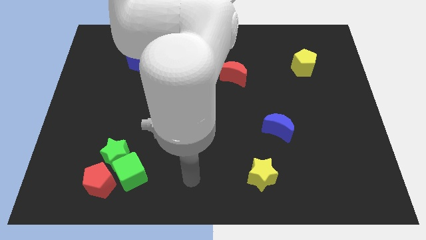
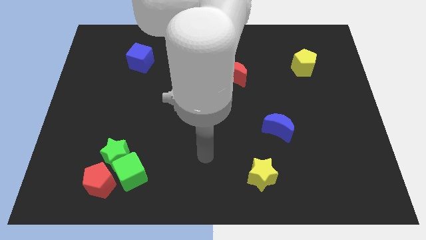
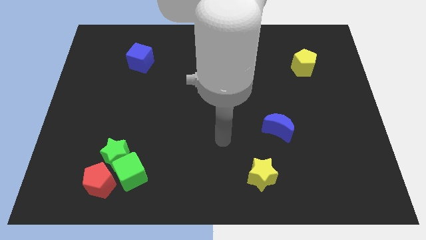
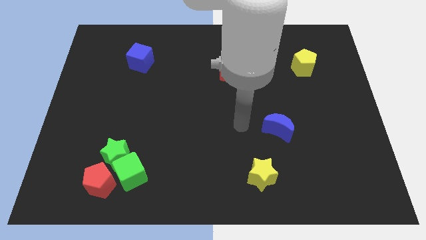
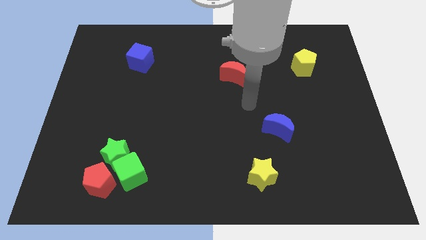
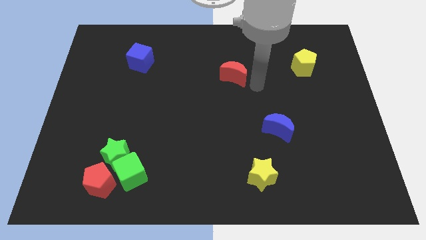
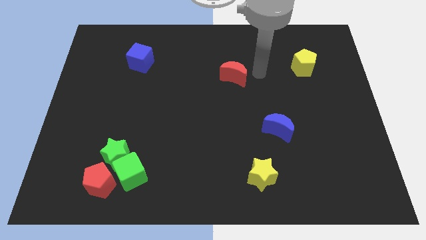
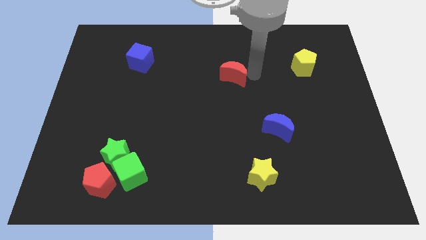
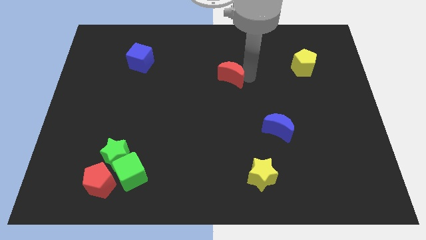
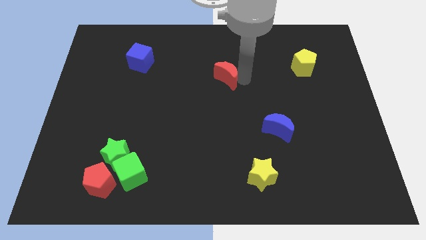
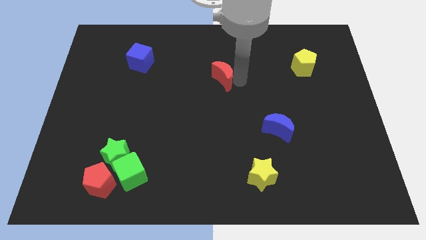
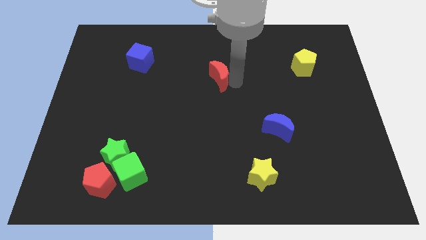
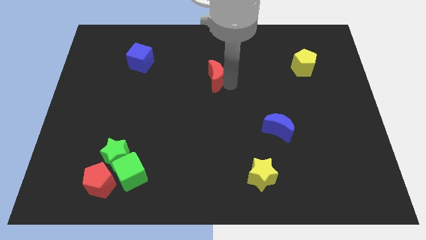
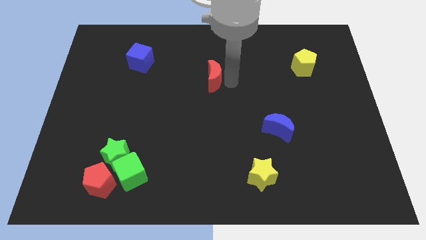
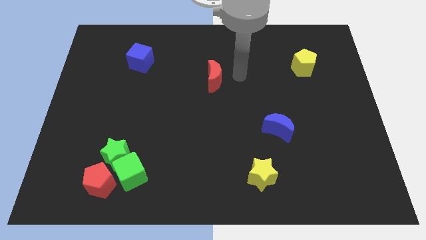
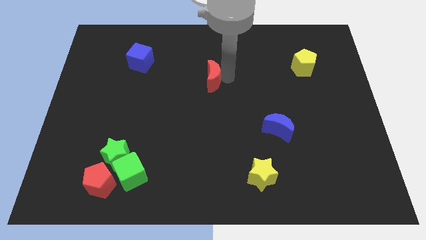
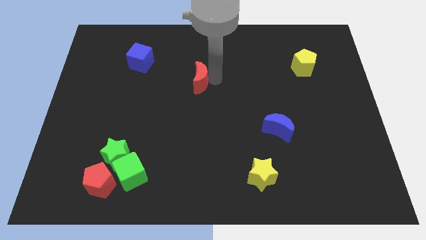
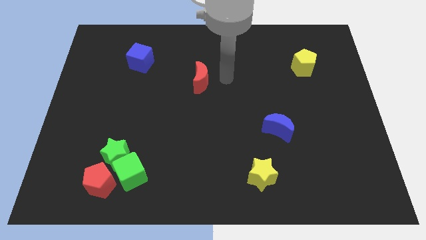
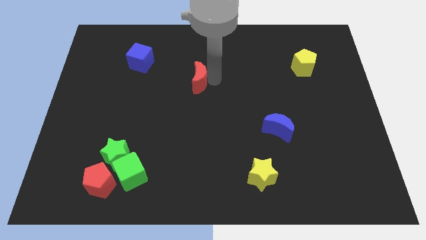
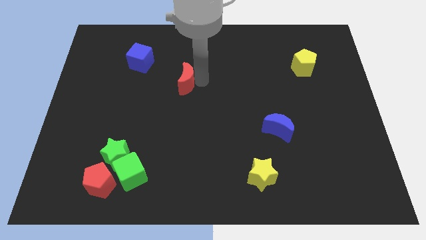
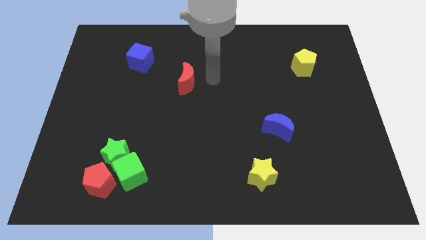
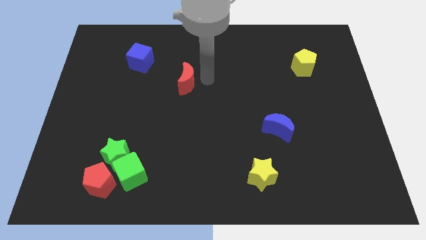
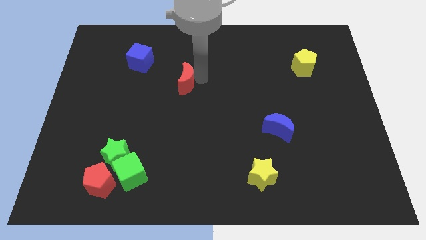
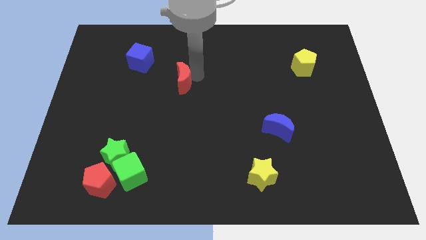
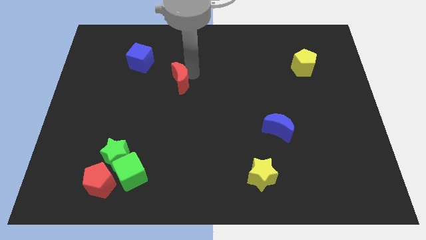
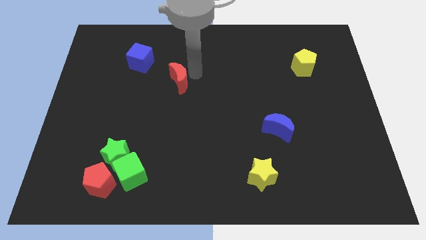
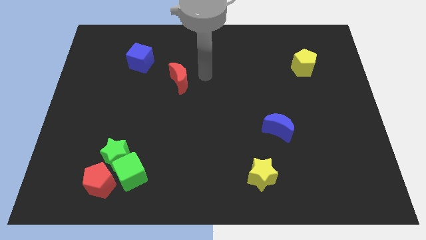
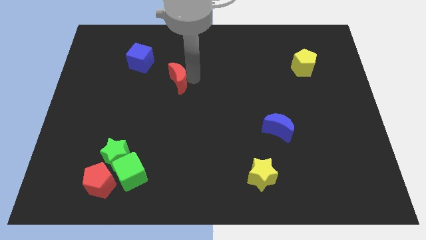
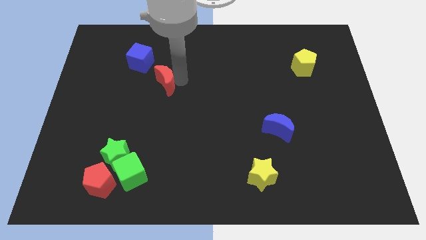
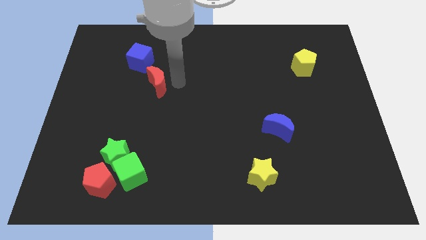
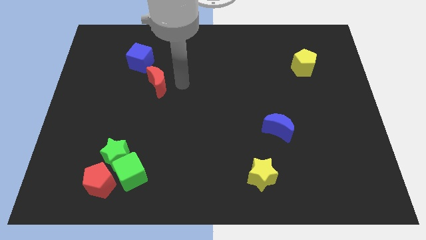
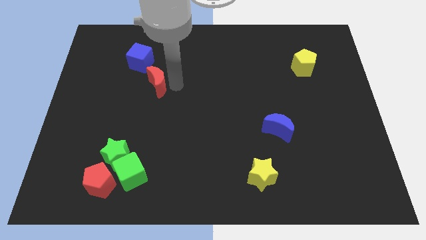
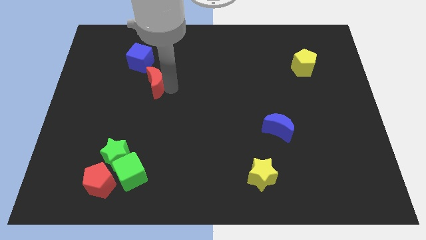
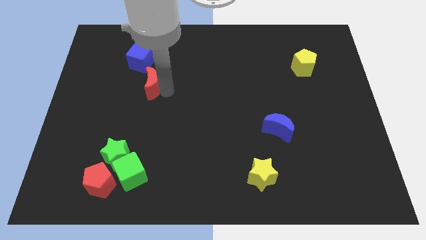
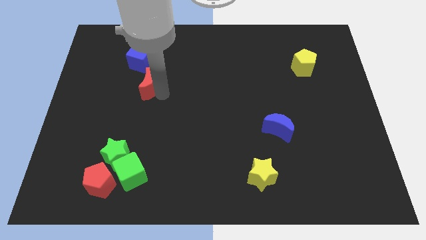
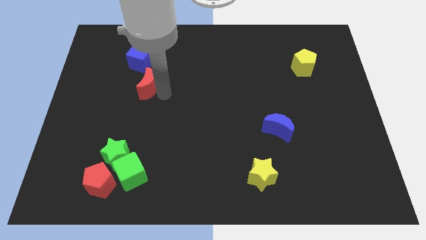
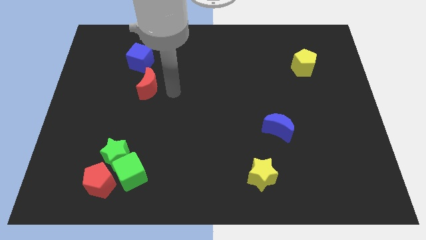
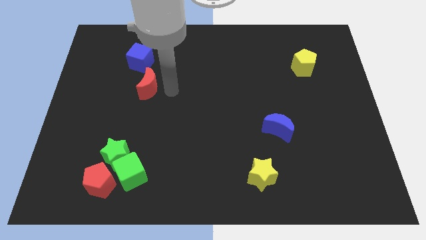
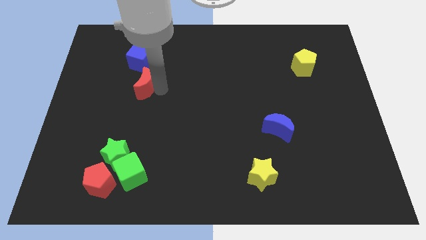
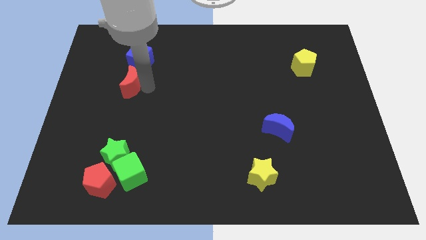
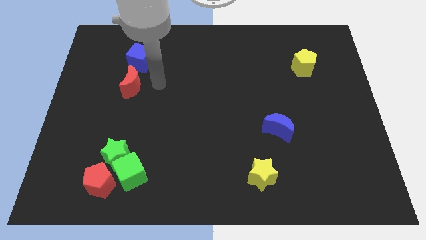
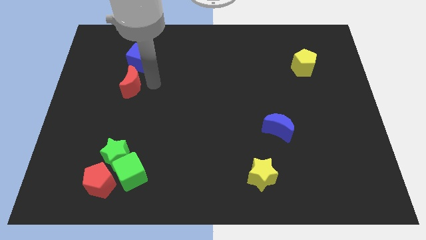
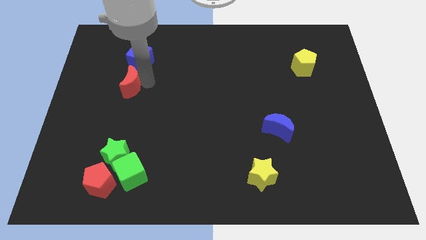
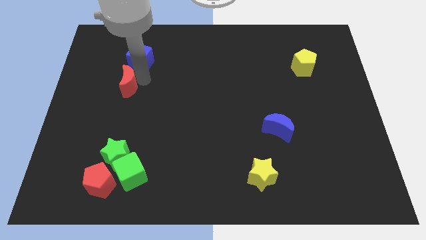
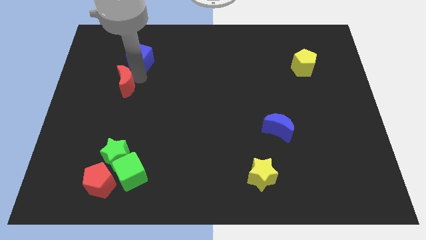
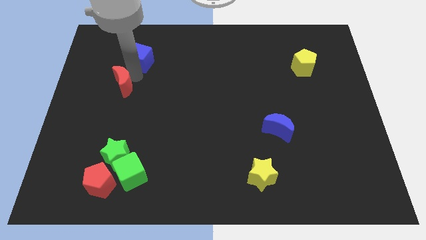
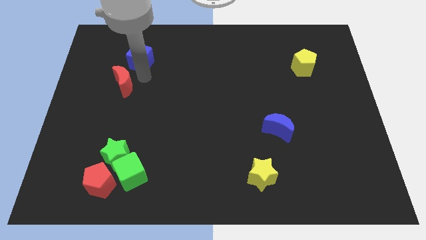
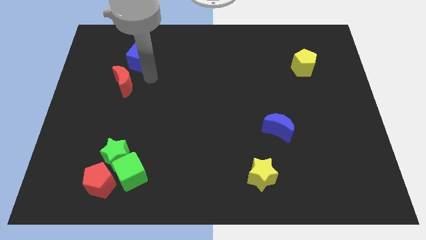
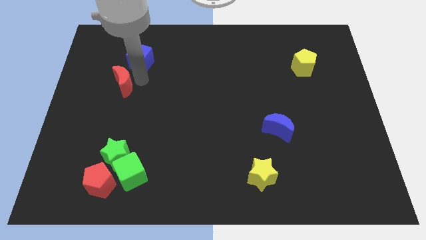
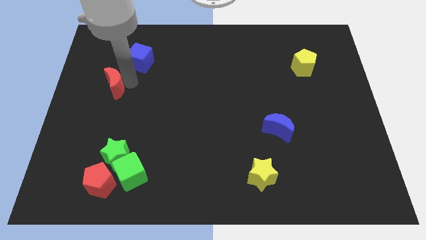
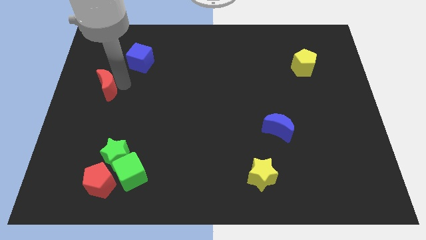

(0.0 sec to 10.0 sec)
slide the red moon to the left side of the board

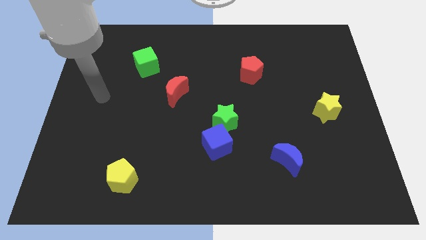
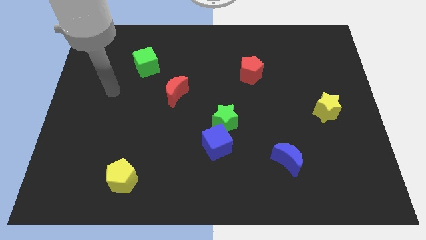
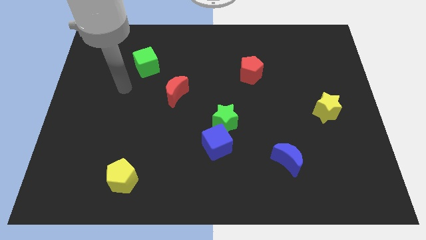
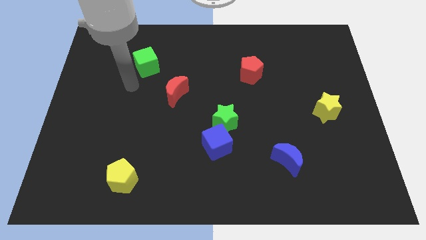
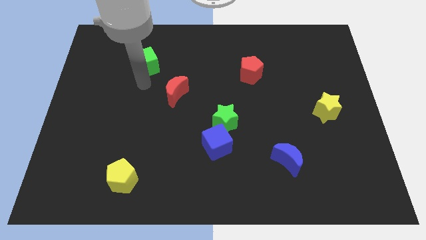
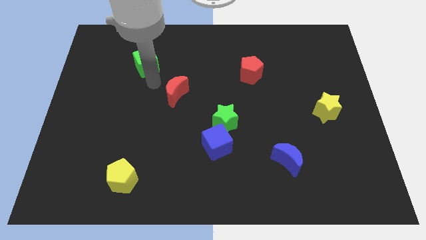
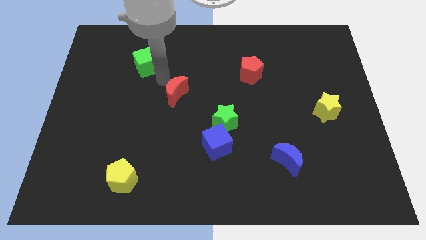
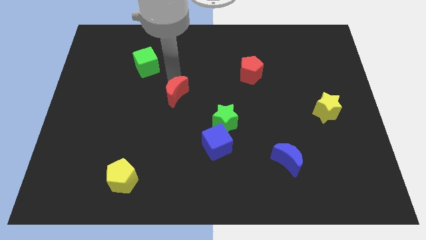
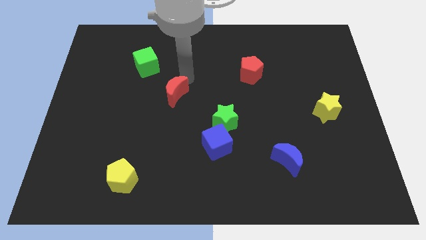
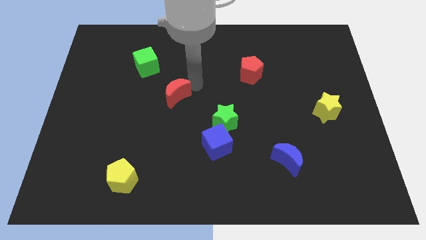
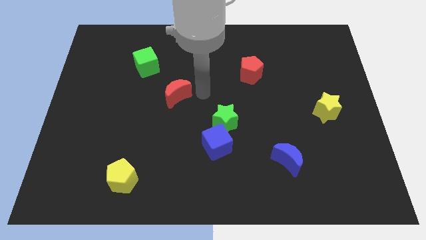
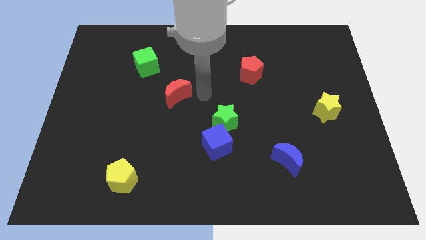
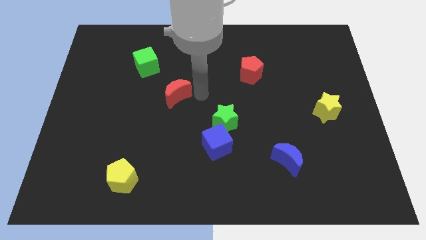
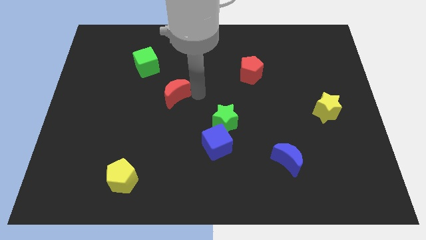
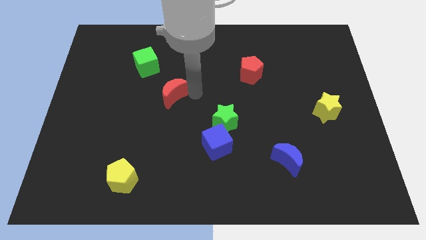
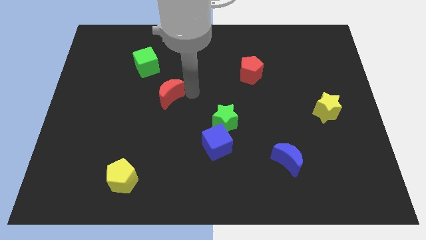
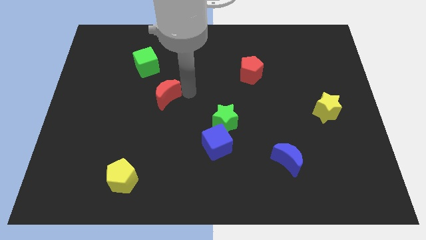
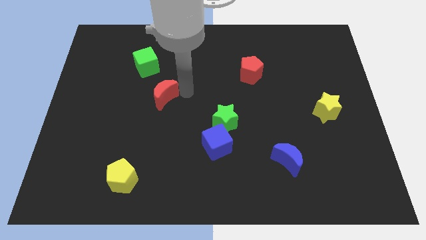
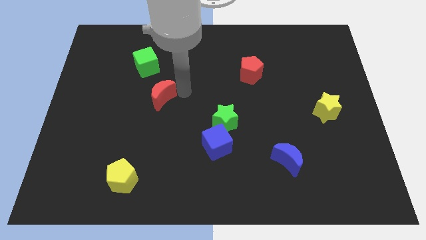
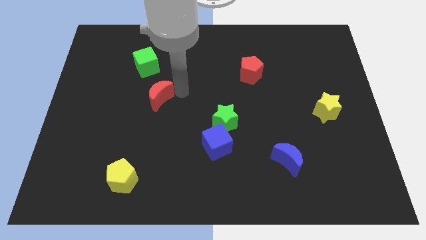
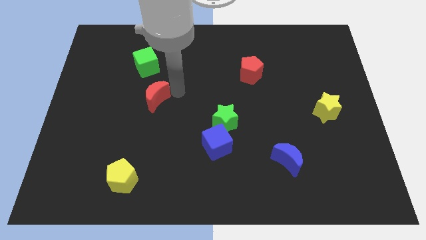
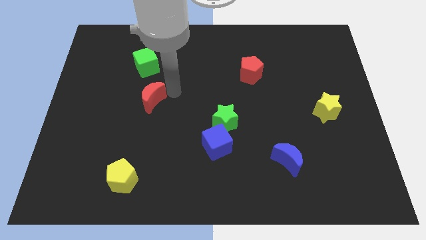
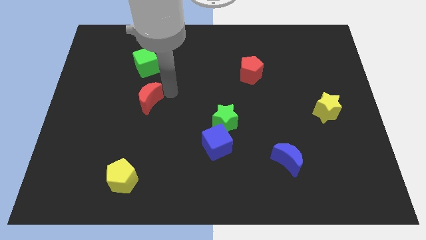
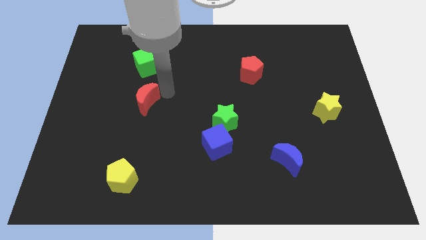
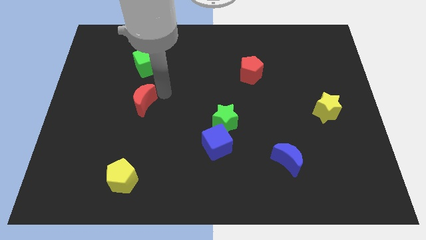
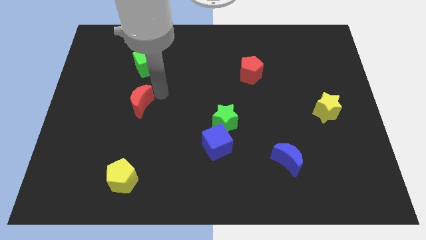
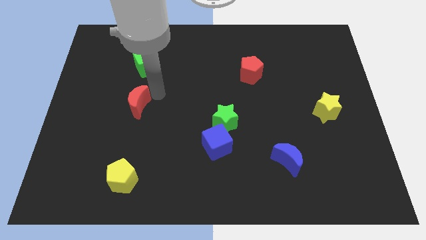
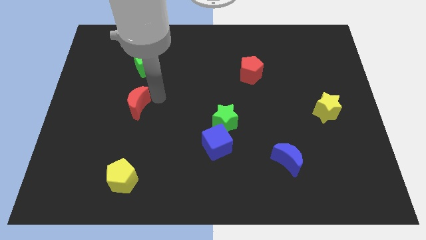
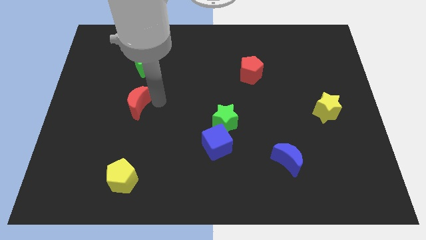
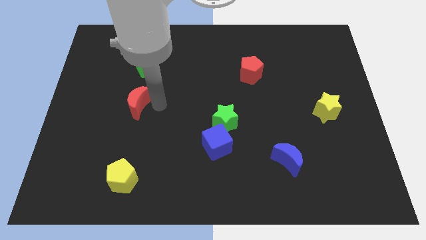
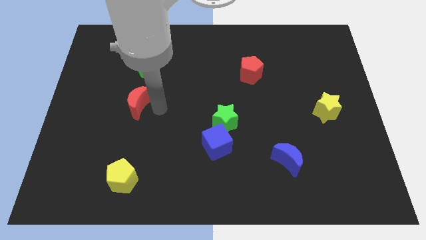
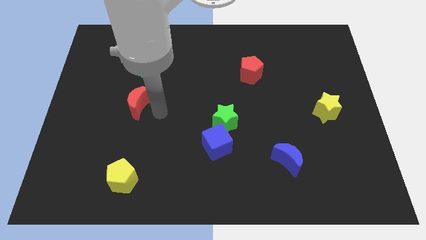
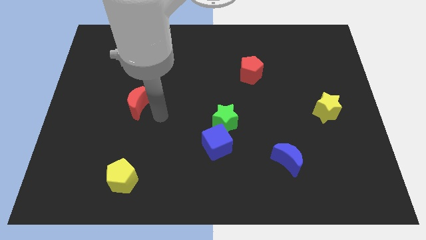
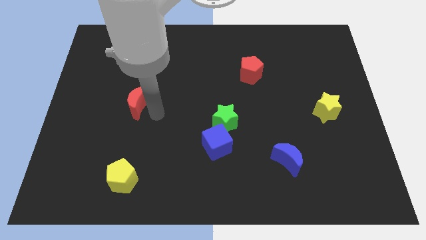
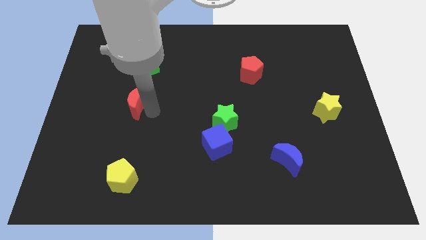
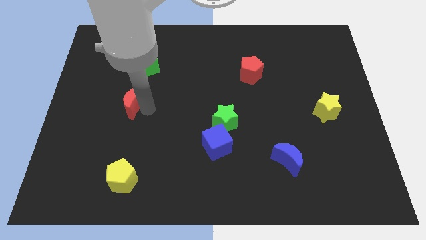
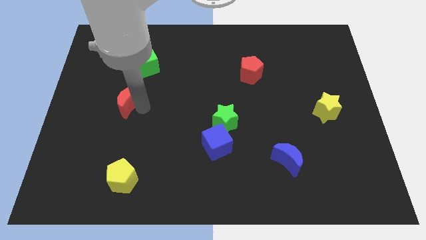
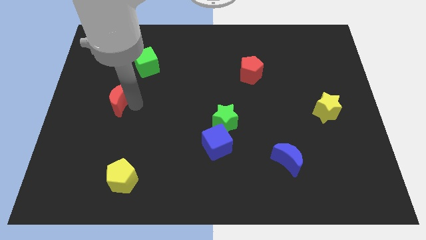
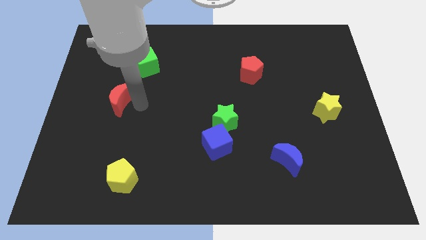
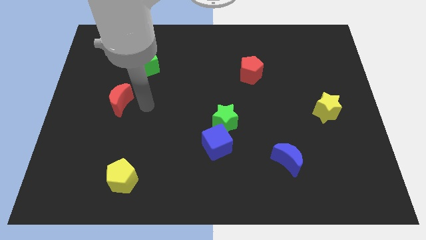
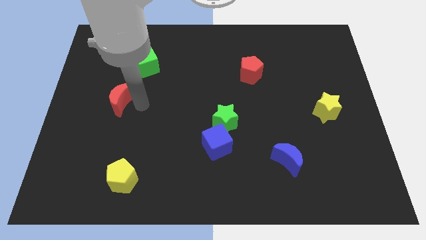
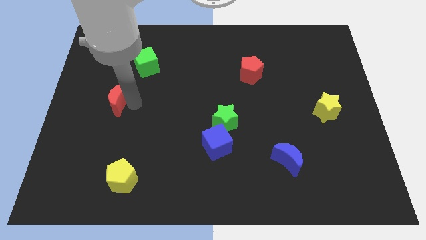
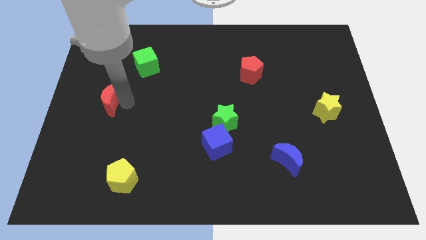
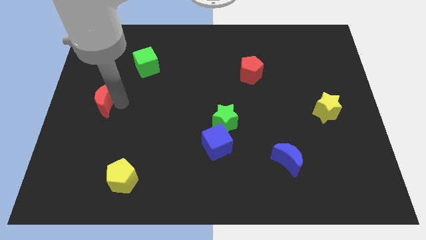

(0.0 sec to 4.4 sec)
slide the red moon to the left side
